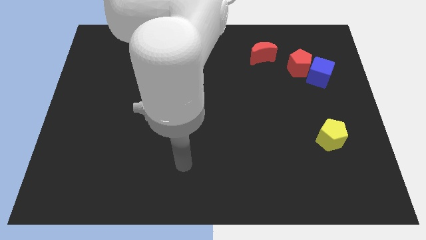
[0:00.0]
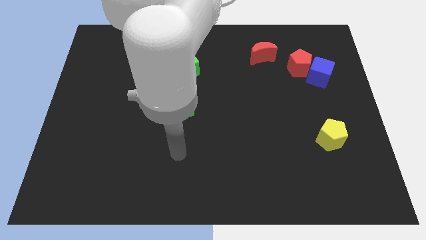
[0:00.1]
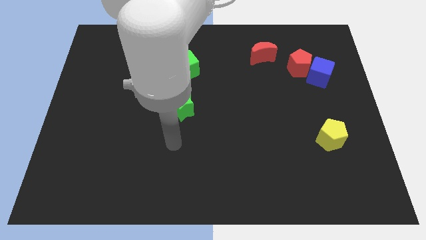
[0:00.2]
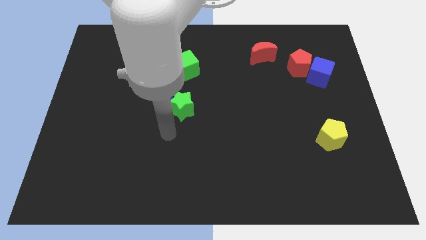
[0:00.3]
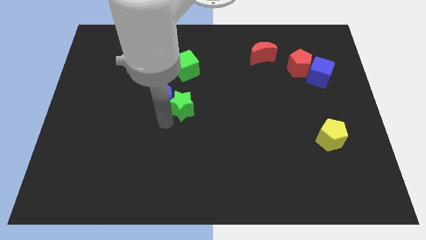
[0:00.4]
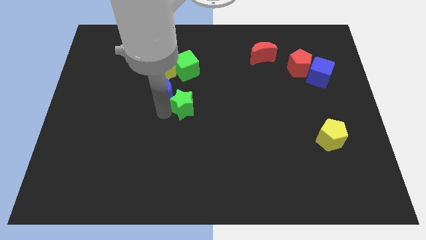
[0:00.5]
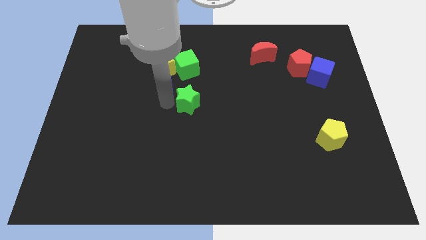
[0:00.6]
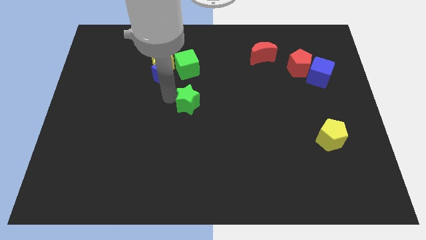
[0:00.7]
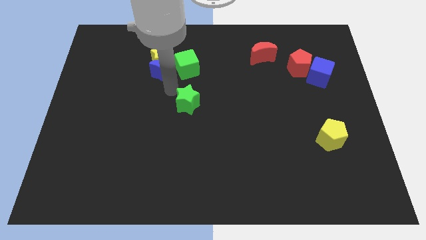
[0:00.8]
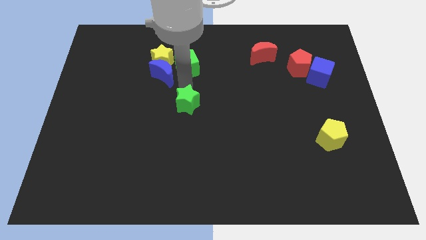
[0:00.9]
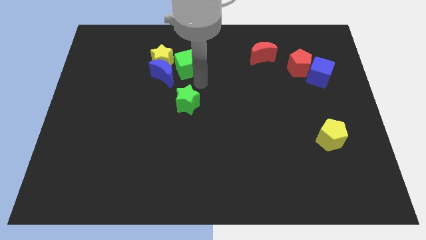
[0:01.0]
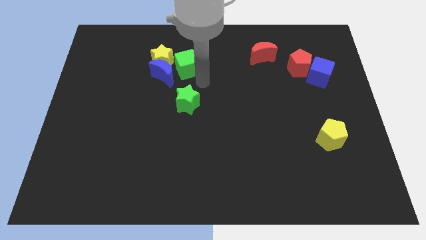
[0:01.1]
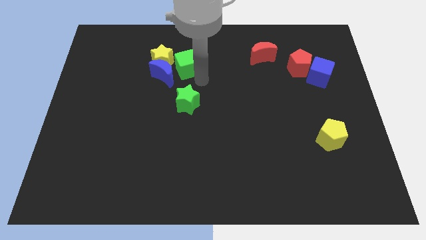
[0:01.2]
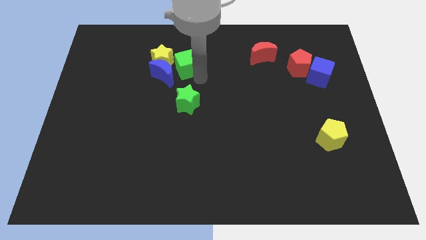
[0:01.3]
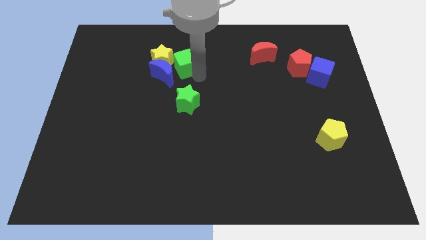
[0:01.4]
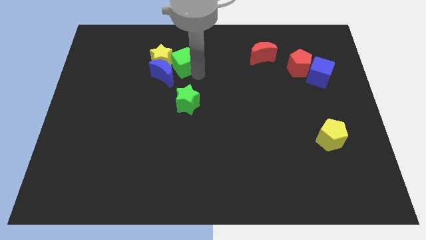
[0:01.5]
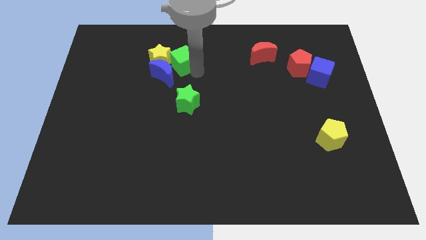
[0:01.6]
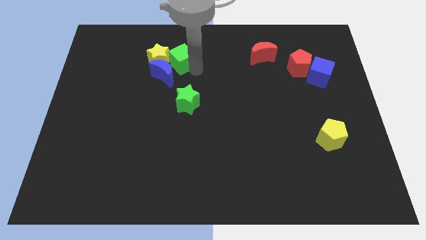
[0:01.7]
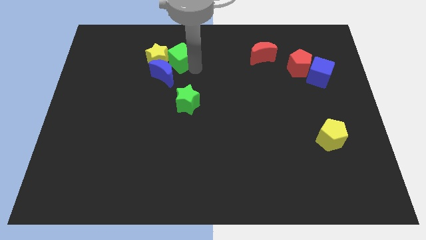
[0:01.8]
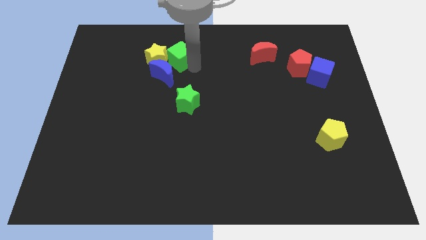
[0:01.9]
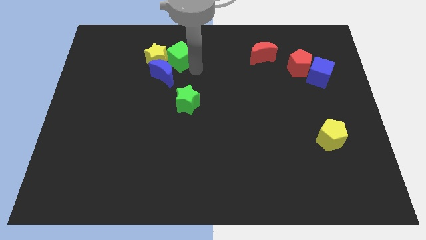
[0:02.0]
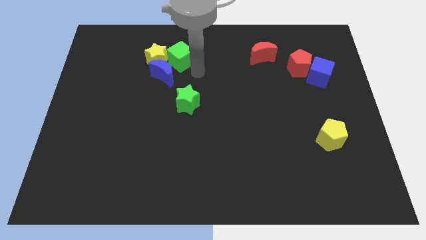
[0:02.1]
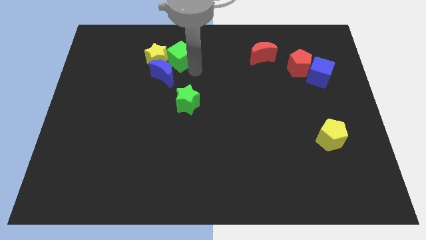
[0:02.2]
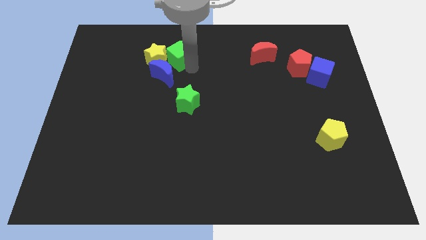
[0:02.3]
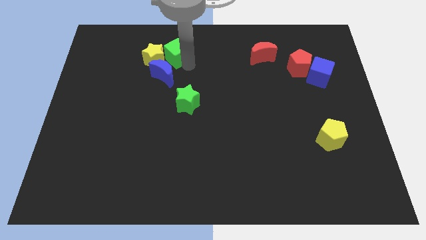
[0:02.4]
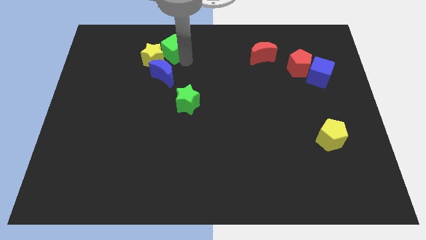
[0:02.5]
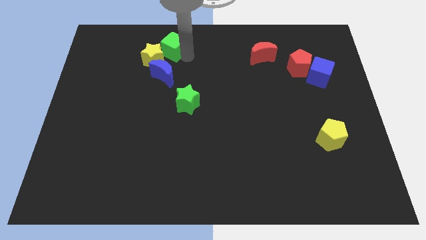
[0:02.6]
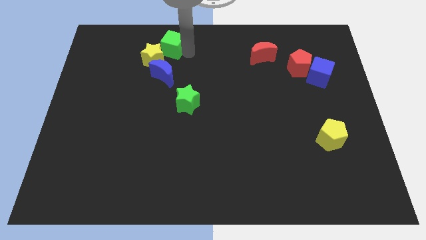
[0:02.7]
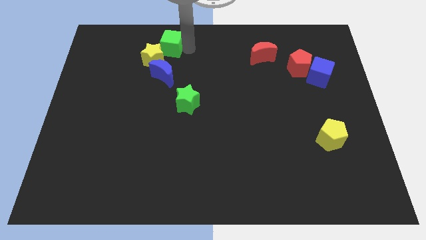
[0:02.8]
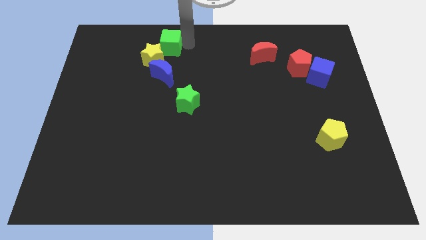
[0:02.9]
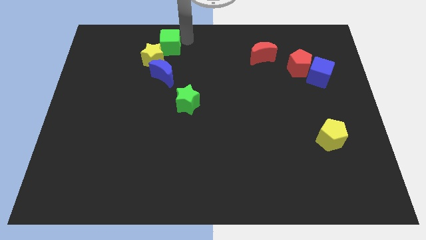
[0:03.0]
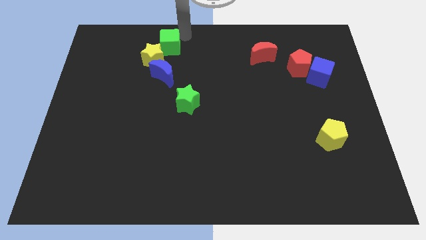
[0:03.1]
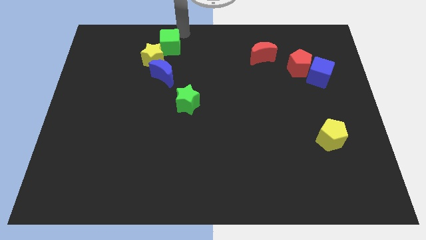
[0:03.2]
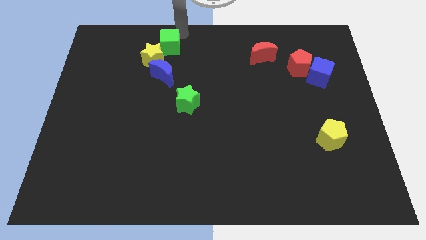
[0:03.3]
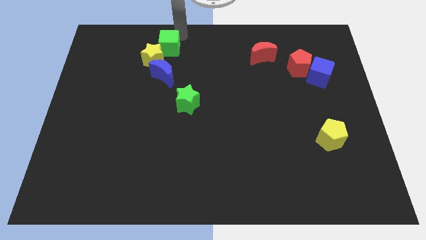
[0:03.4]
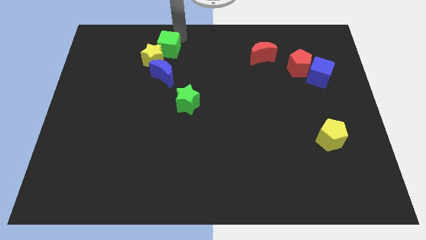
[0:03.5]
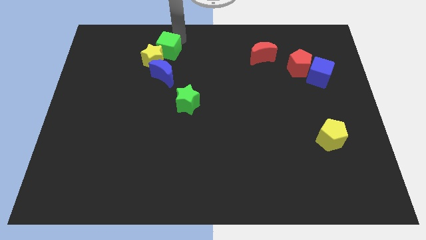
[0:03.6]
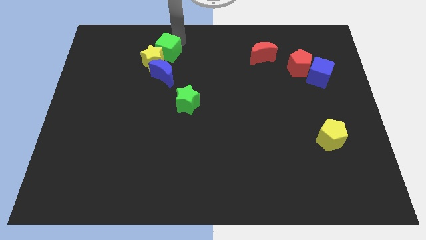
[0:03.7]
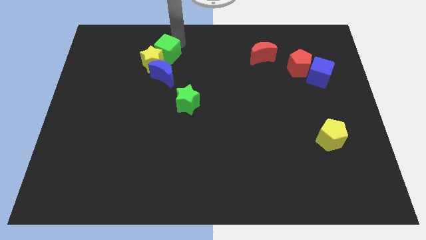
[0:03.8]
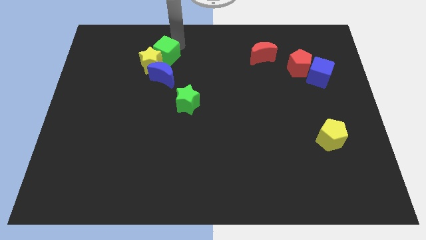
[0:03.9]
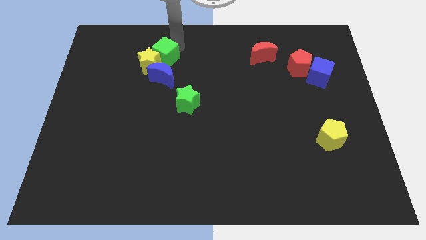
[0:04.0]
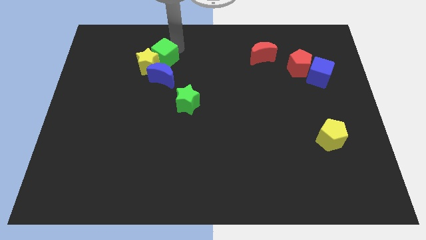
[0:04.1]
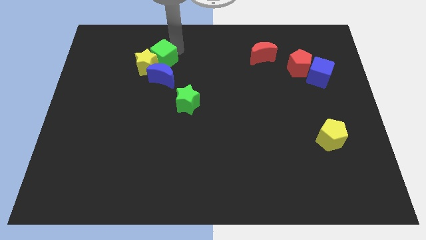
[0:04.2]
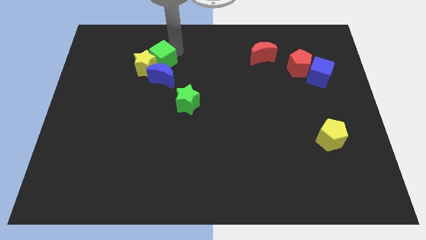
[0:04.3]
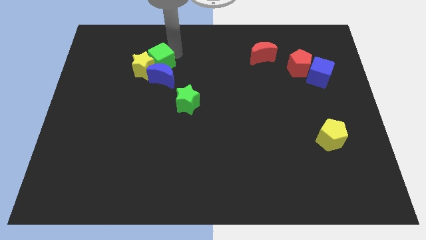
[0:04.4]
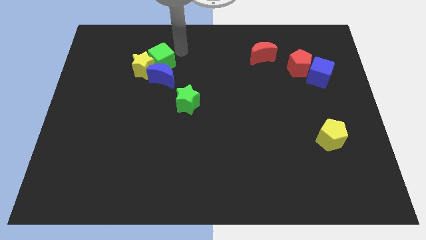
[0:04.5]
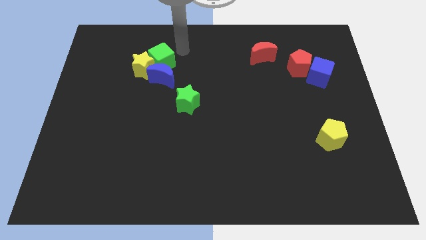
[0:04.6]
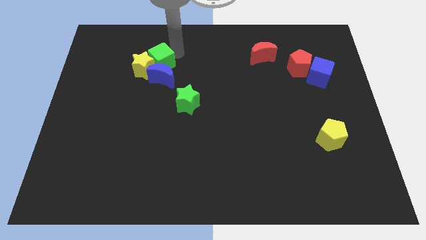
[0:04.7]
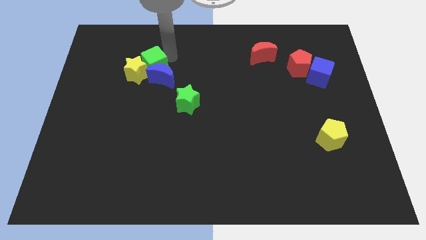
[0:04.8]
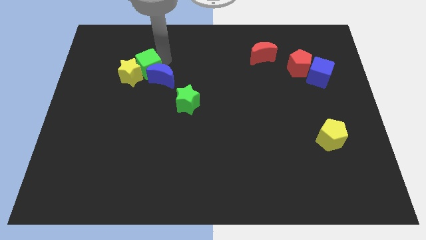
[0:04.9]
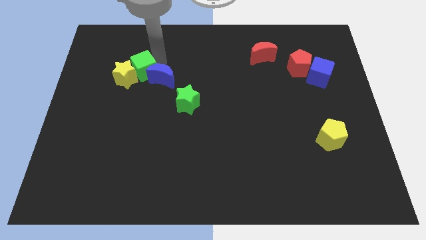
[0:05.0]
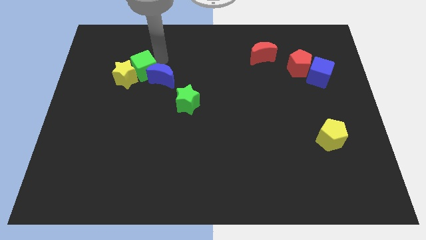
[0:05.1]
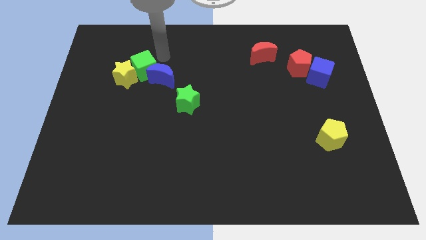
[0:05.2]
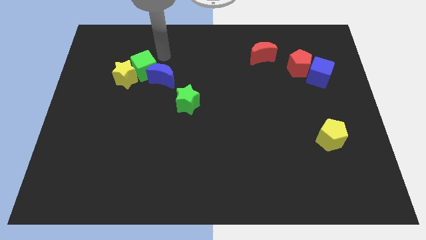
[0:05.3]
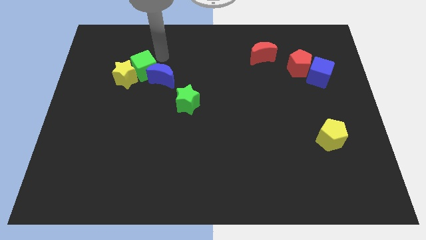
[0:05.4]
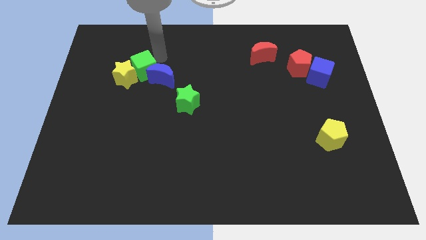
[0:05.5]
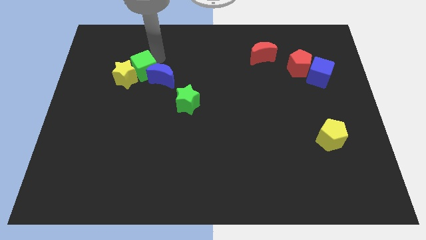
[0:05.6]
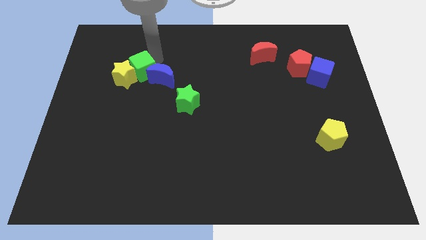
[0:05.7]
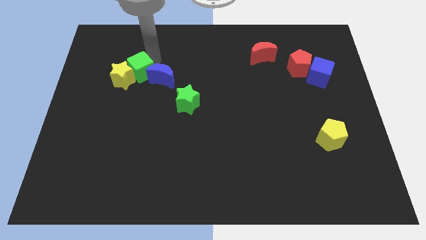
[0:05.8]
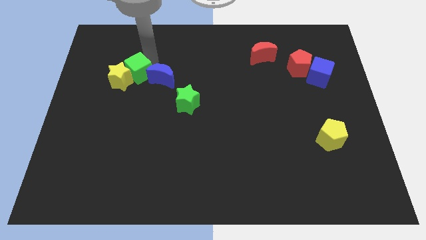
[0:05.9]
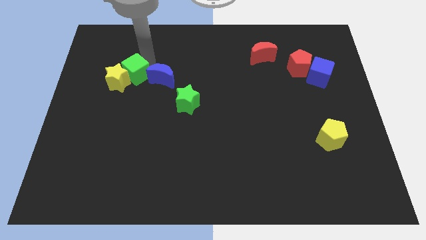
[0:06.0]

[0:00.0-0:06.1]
slightly push the green cube diagonally downwards and to the left

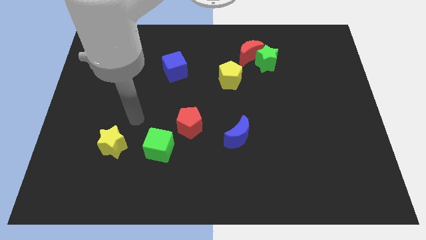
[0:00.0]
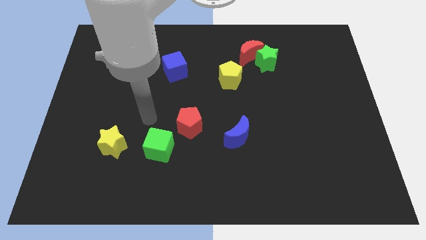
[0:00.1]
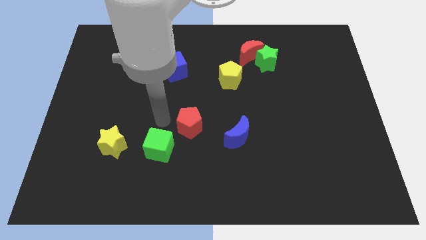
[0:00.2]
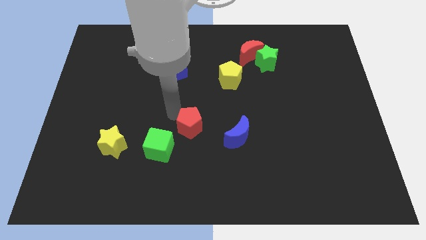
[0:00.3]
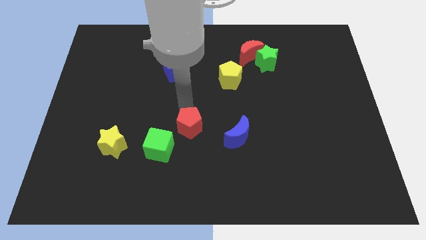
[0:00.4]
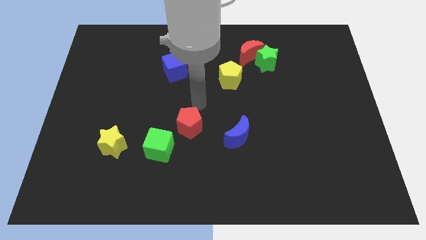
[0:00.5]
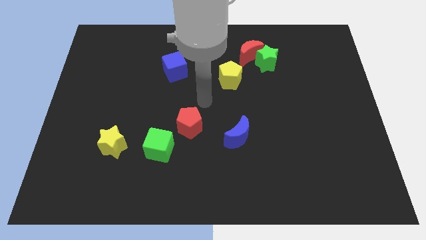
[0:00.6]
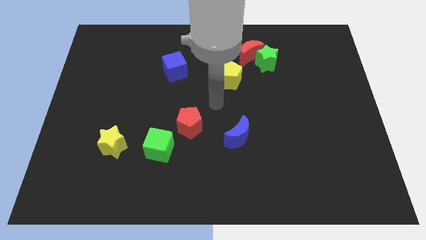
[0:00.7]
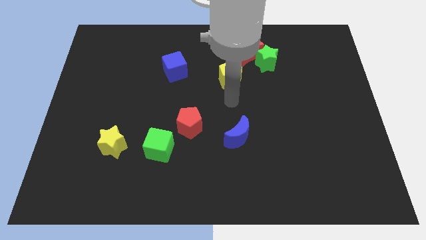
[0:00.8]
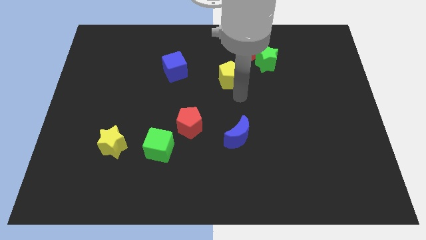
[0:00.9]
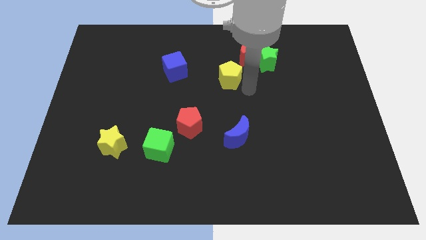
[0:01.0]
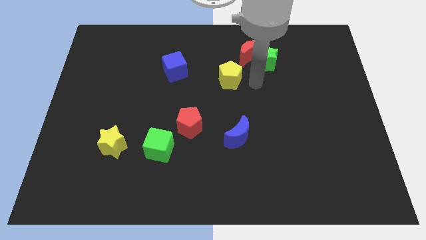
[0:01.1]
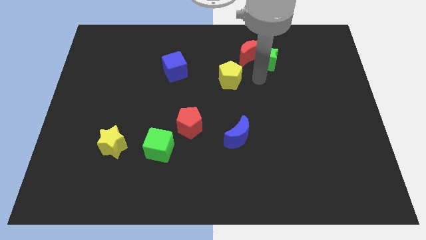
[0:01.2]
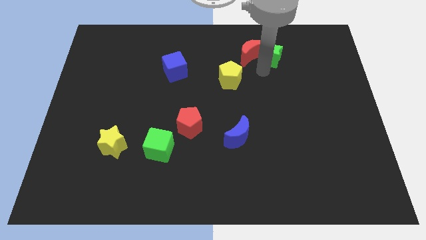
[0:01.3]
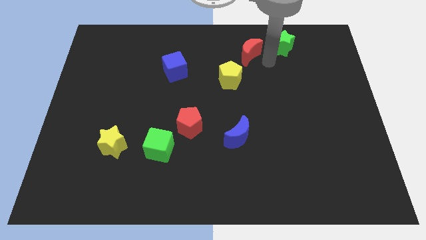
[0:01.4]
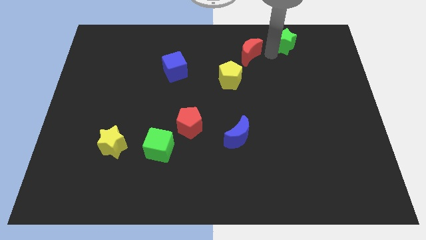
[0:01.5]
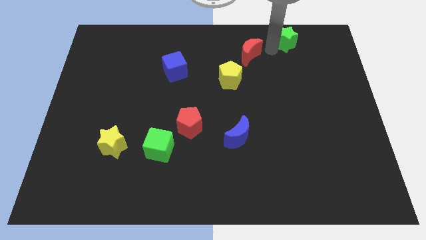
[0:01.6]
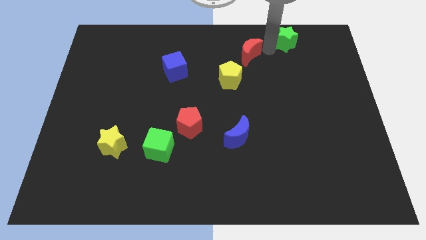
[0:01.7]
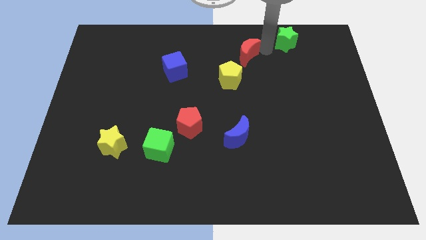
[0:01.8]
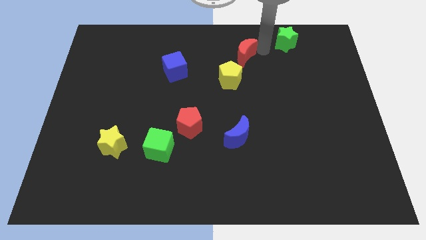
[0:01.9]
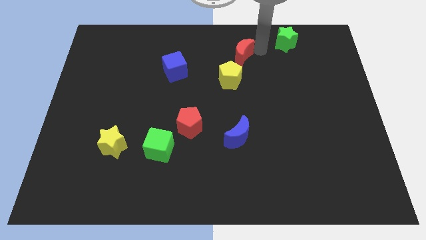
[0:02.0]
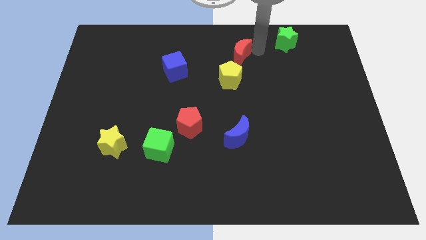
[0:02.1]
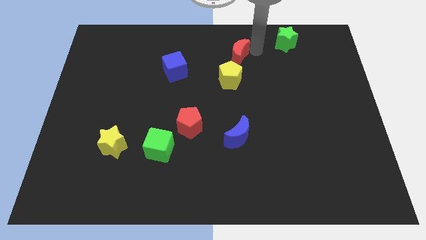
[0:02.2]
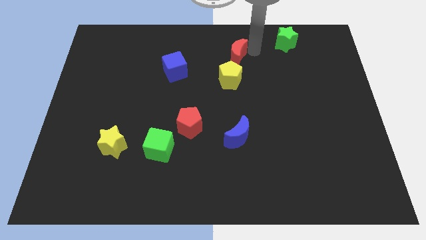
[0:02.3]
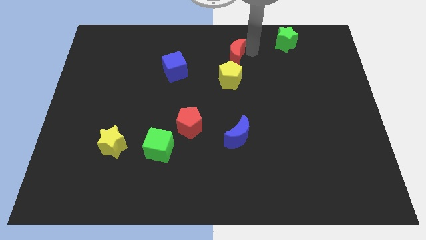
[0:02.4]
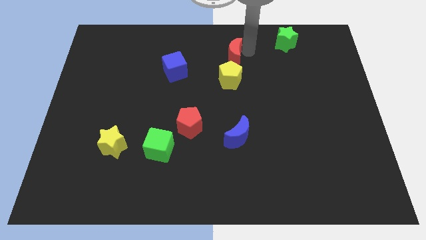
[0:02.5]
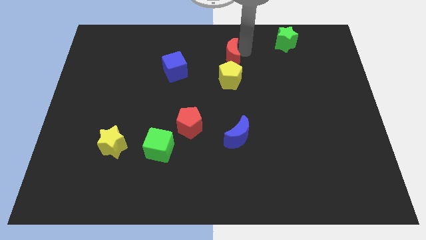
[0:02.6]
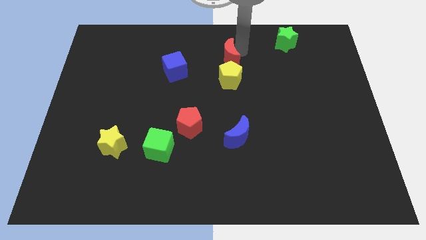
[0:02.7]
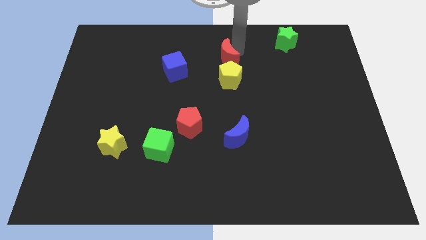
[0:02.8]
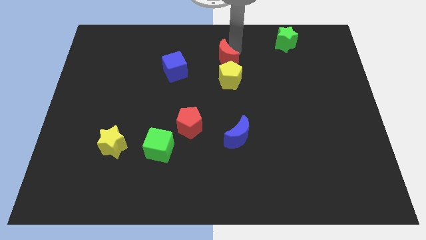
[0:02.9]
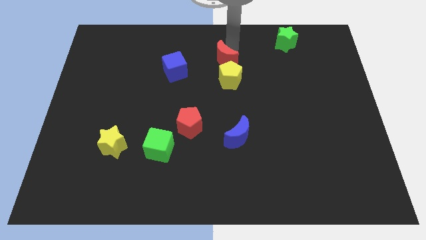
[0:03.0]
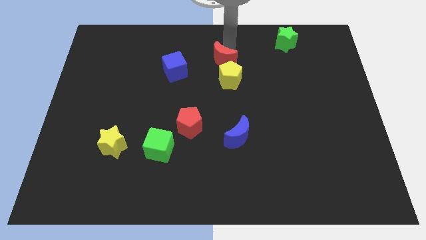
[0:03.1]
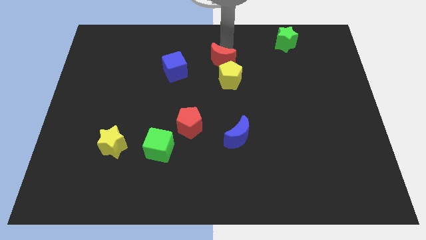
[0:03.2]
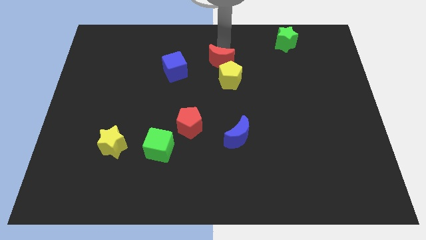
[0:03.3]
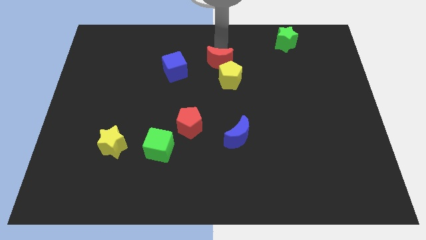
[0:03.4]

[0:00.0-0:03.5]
push the red moon a bit diagonally down and to the left
